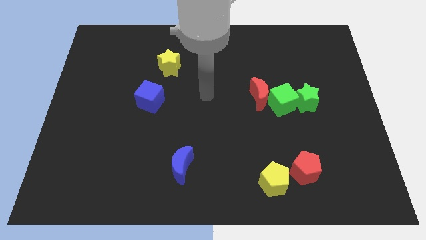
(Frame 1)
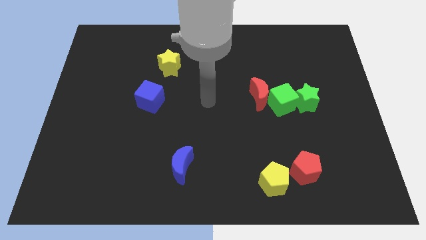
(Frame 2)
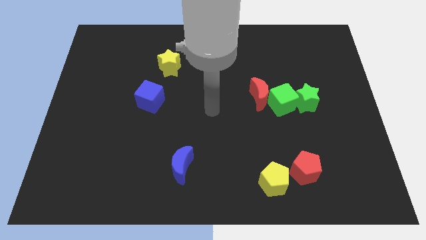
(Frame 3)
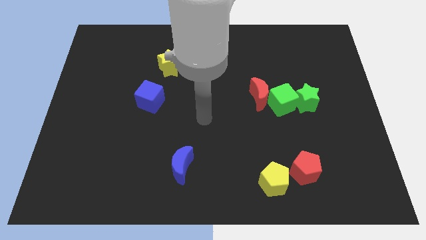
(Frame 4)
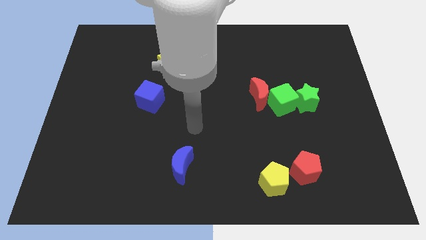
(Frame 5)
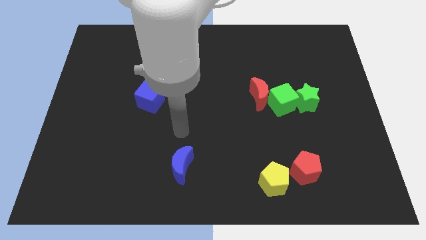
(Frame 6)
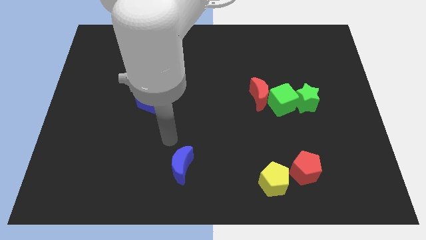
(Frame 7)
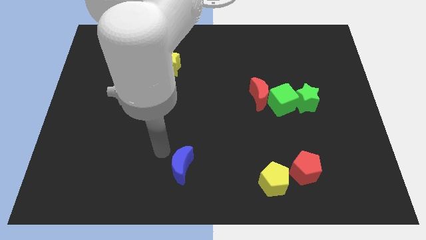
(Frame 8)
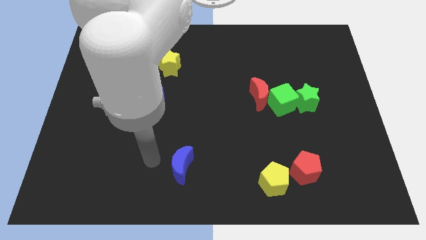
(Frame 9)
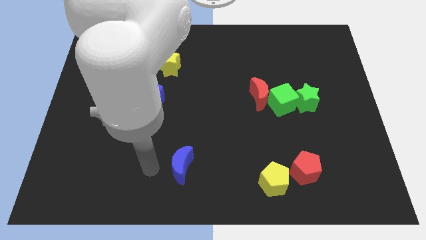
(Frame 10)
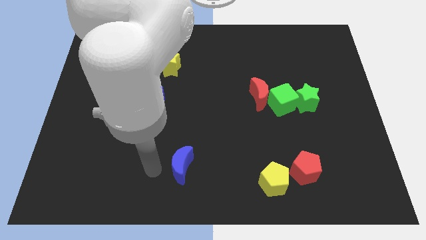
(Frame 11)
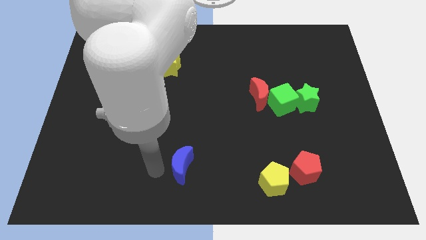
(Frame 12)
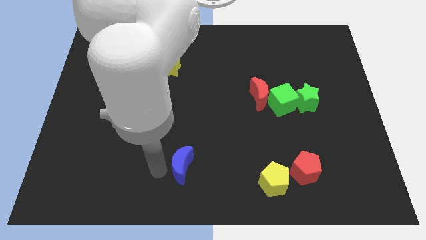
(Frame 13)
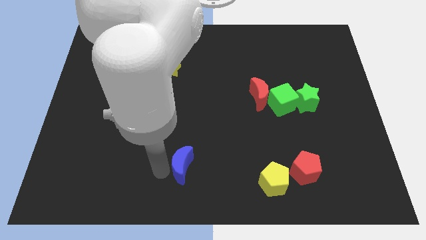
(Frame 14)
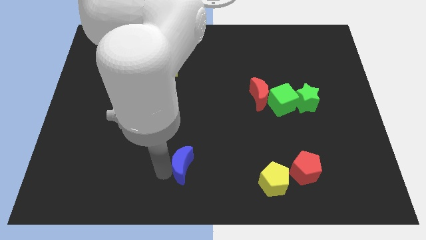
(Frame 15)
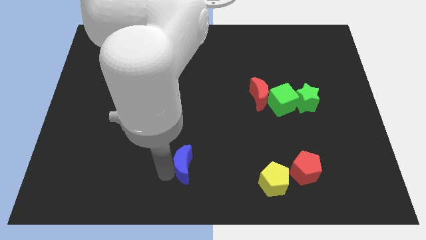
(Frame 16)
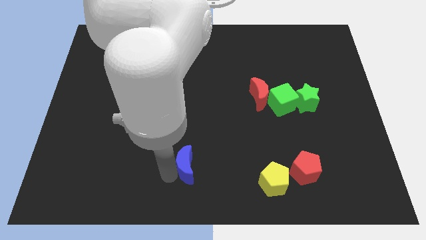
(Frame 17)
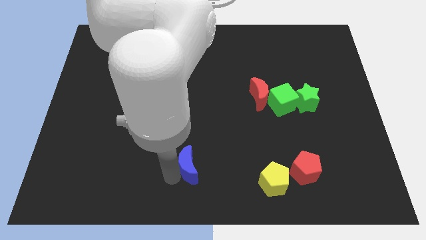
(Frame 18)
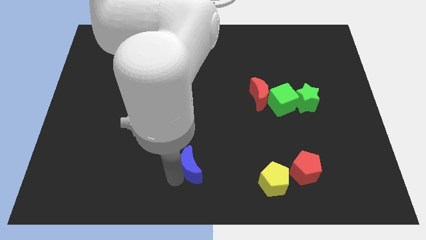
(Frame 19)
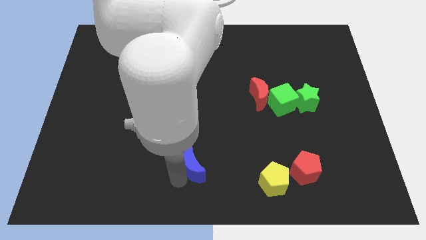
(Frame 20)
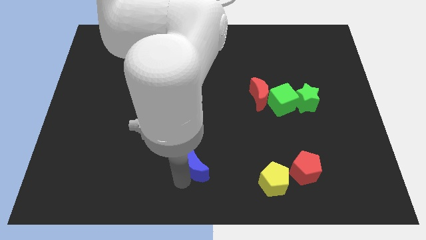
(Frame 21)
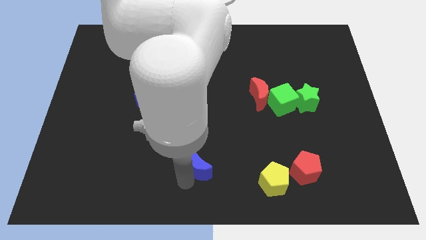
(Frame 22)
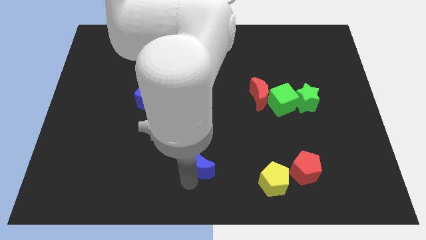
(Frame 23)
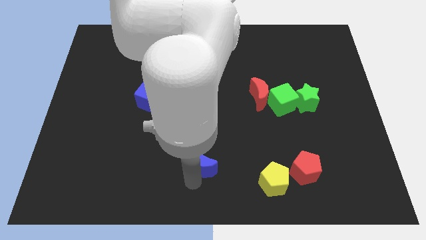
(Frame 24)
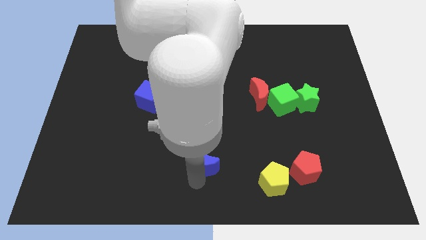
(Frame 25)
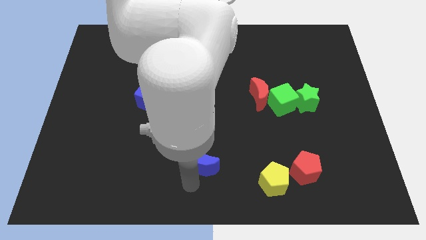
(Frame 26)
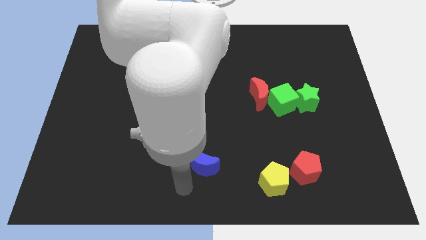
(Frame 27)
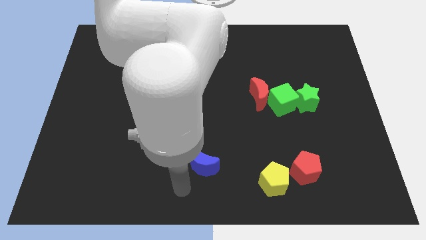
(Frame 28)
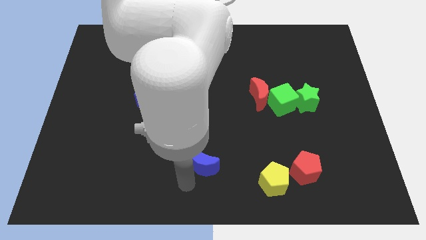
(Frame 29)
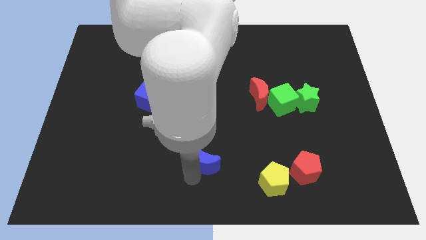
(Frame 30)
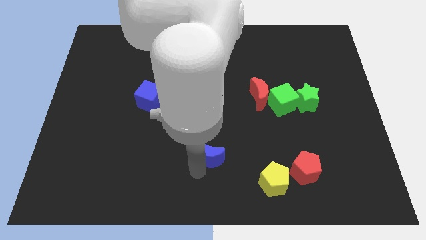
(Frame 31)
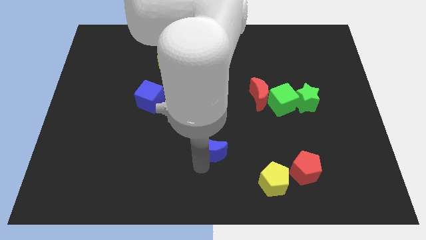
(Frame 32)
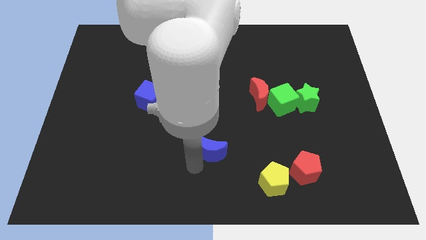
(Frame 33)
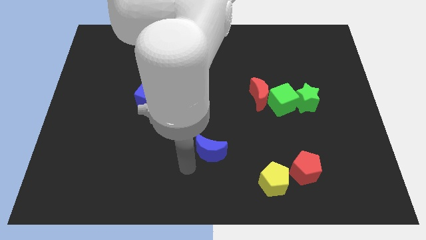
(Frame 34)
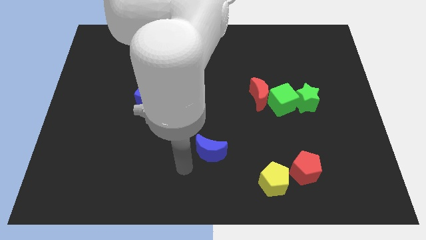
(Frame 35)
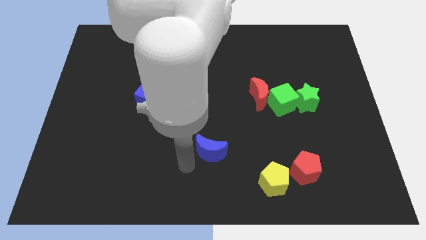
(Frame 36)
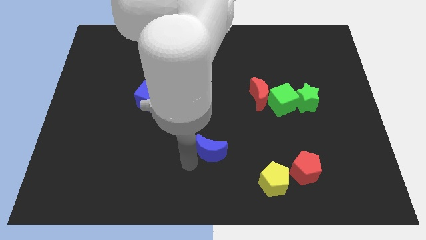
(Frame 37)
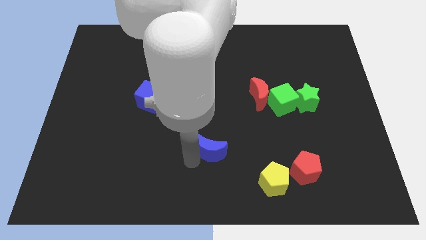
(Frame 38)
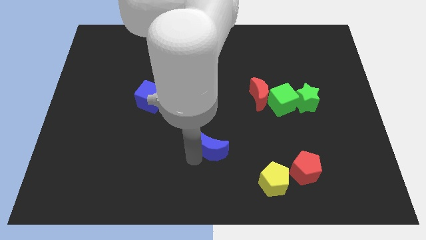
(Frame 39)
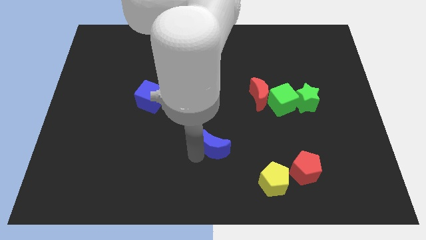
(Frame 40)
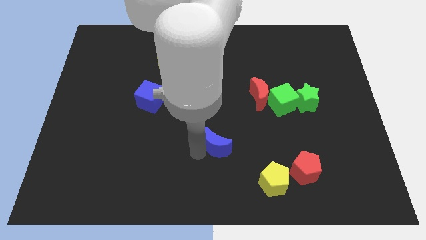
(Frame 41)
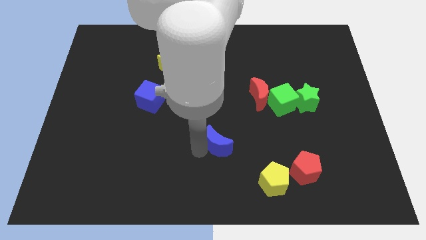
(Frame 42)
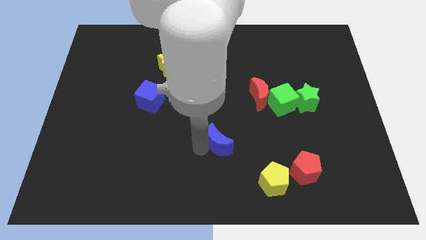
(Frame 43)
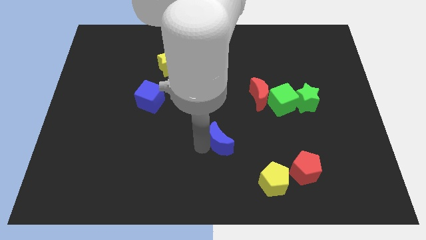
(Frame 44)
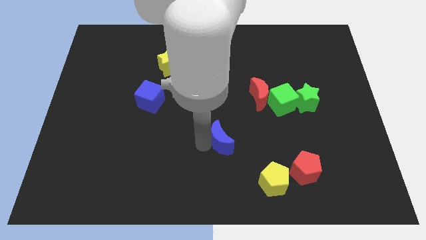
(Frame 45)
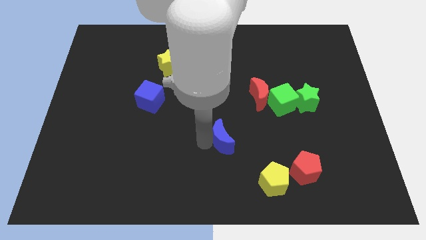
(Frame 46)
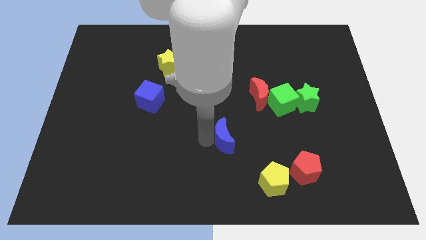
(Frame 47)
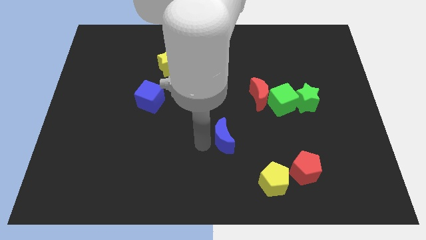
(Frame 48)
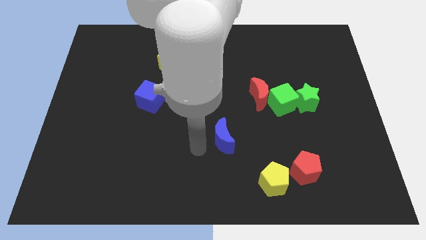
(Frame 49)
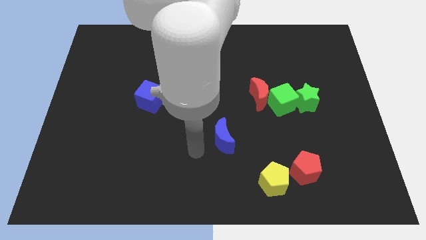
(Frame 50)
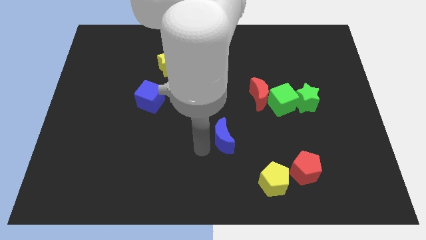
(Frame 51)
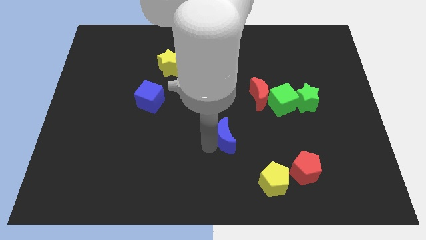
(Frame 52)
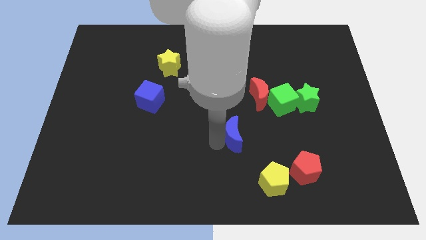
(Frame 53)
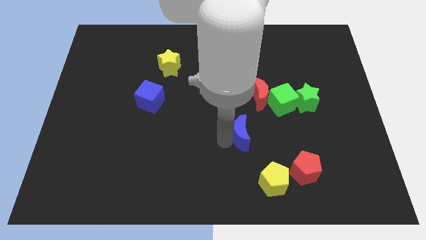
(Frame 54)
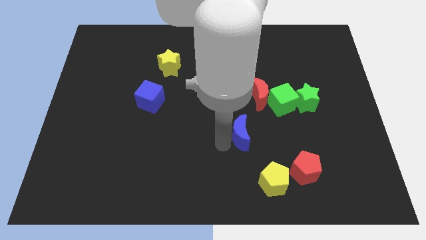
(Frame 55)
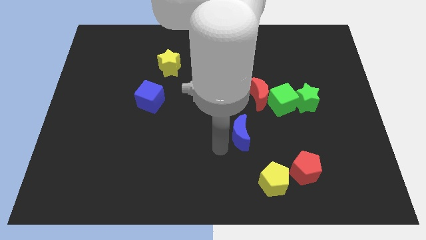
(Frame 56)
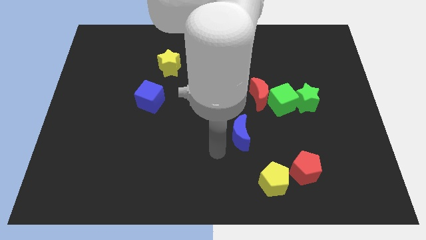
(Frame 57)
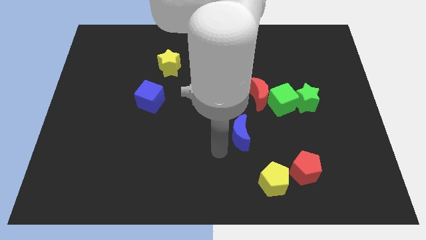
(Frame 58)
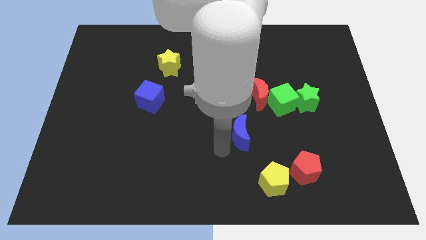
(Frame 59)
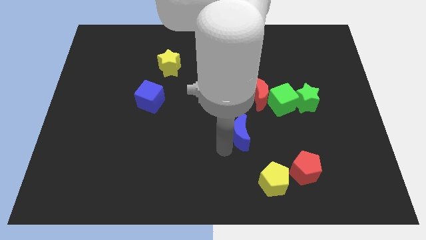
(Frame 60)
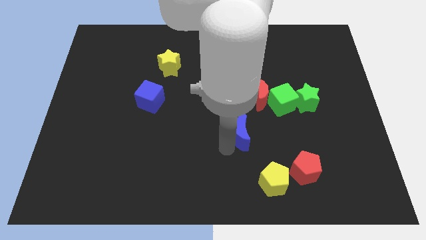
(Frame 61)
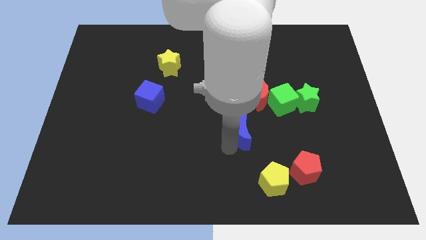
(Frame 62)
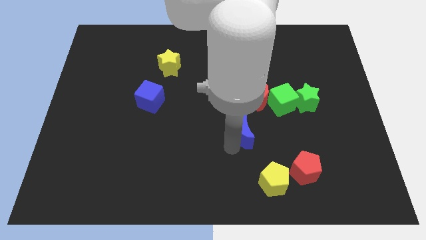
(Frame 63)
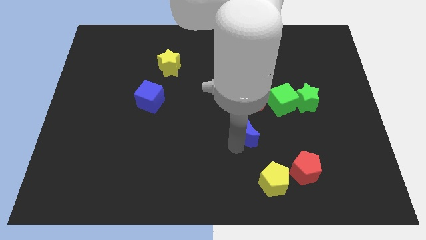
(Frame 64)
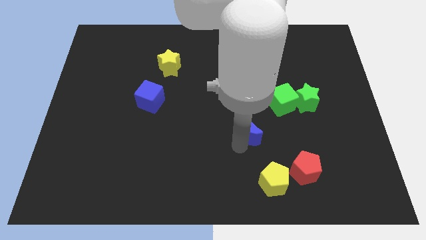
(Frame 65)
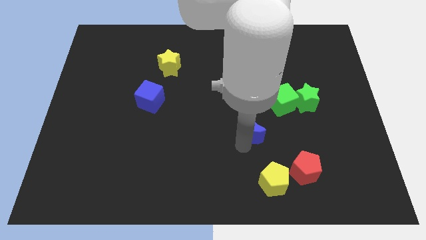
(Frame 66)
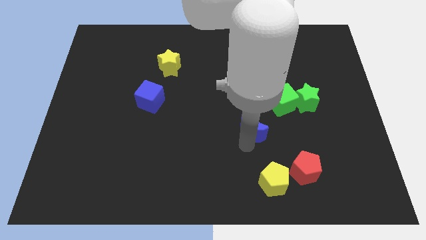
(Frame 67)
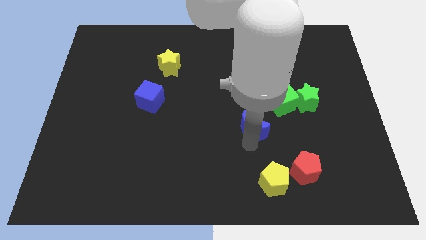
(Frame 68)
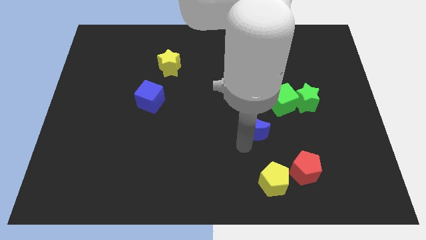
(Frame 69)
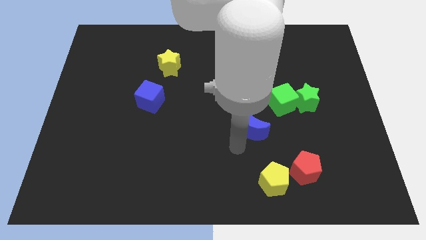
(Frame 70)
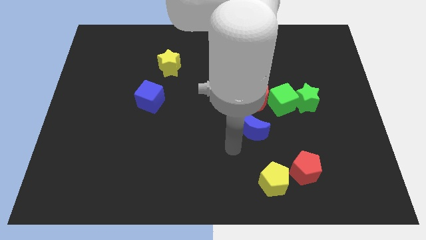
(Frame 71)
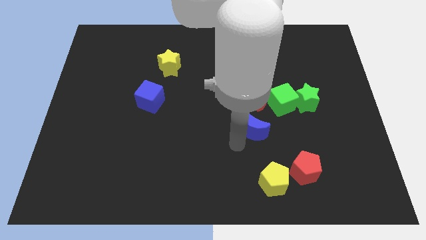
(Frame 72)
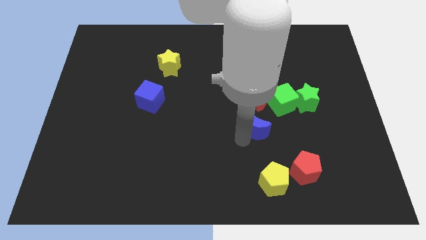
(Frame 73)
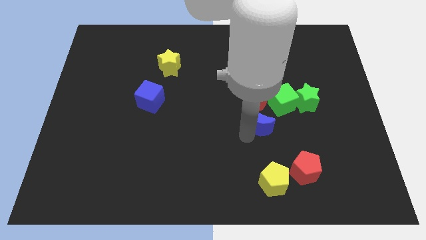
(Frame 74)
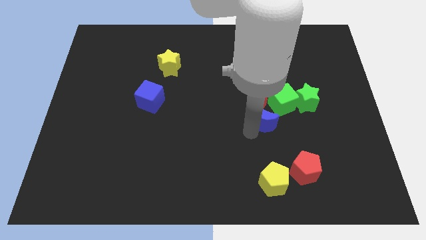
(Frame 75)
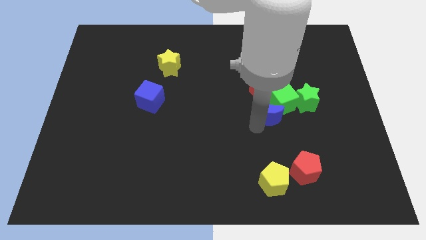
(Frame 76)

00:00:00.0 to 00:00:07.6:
put the blue moon next to the green cube
